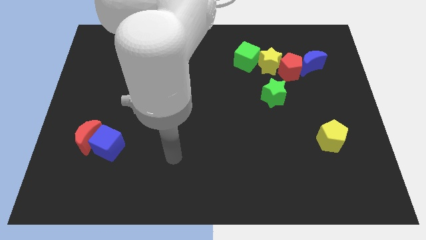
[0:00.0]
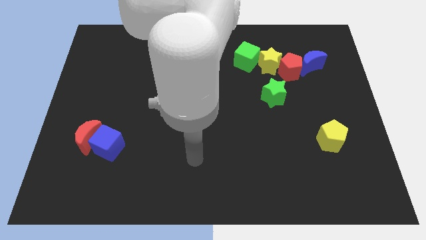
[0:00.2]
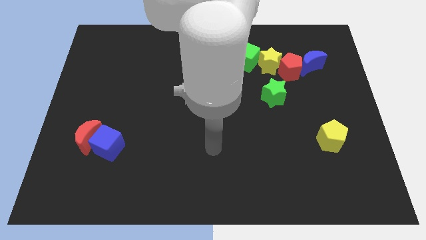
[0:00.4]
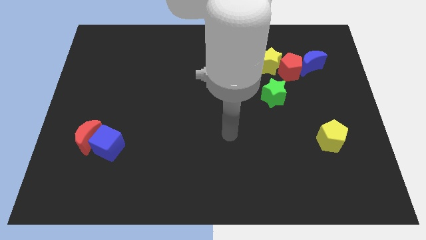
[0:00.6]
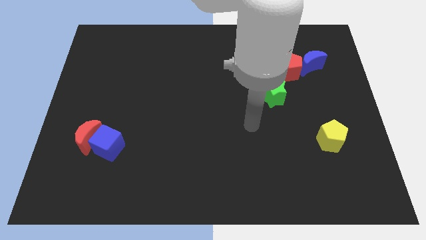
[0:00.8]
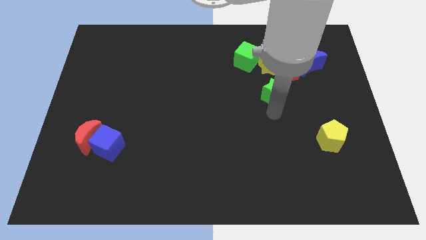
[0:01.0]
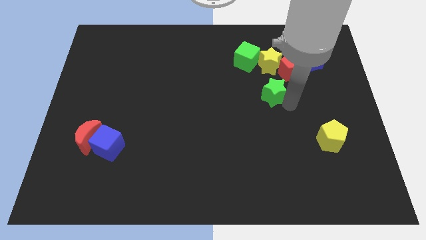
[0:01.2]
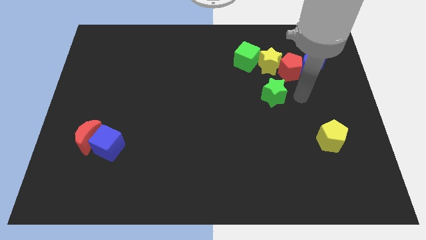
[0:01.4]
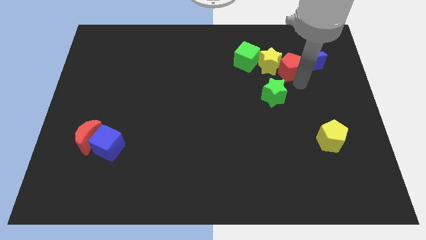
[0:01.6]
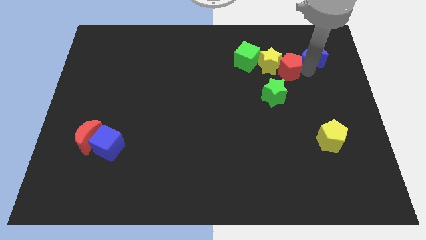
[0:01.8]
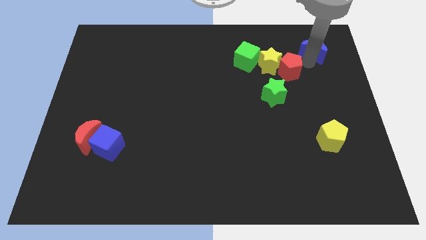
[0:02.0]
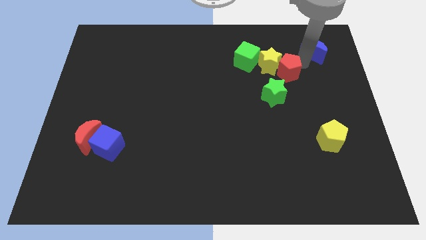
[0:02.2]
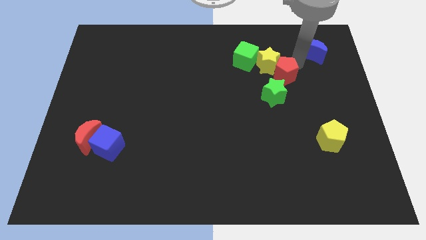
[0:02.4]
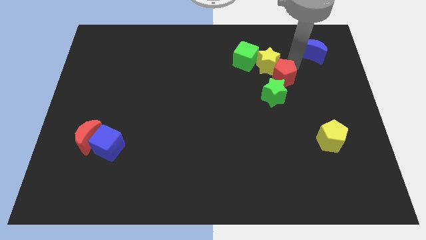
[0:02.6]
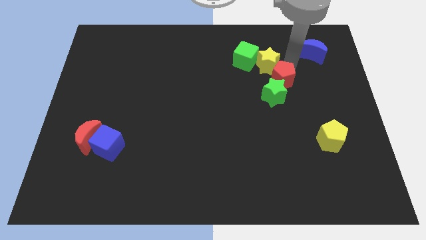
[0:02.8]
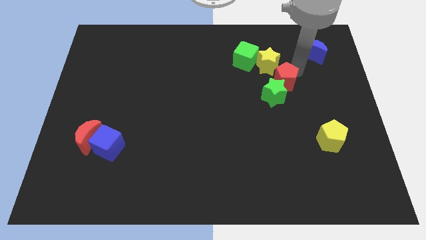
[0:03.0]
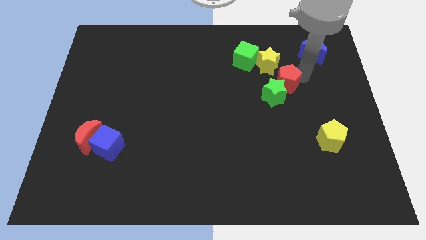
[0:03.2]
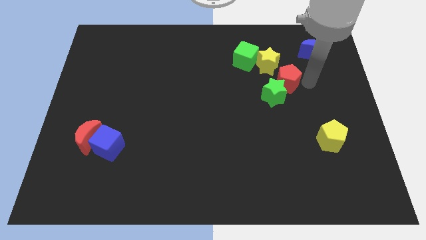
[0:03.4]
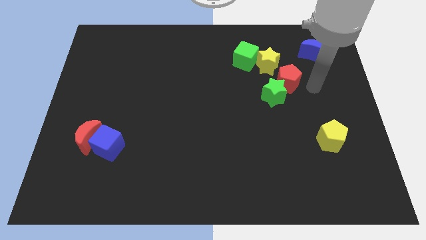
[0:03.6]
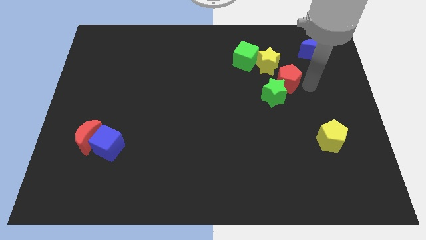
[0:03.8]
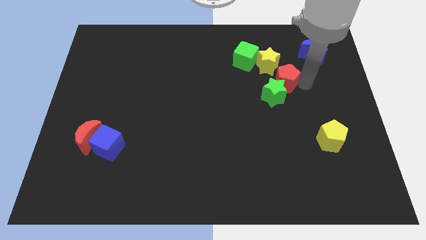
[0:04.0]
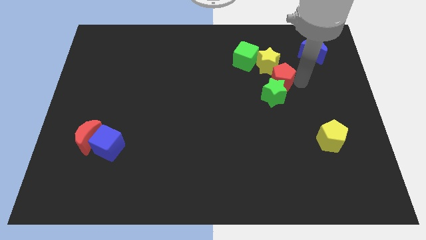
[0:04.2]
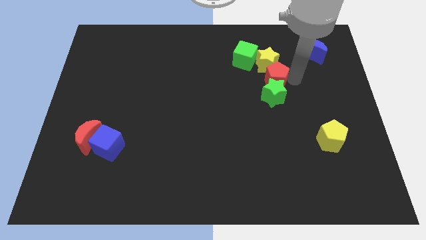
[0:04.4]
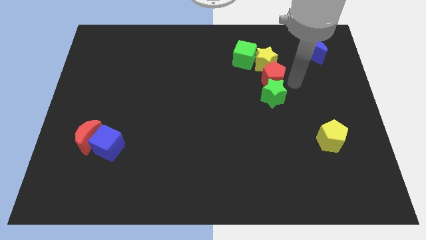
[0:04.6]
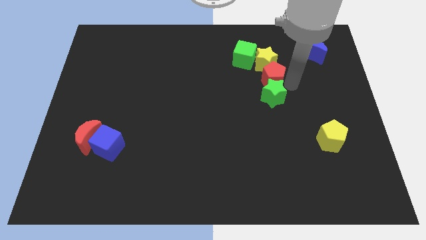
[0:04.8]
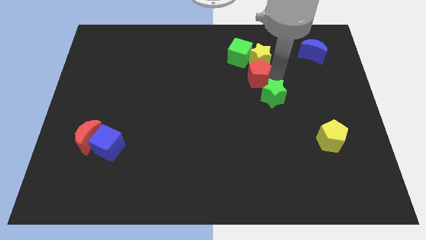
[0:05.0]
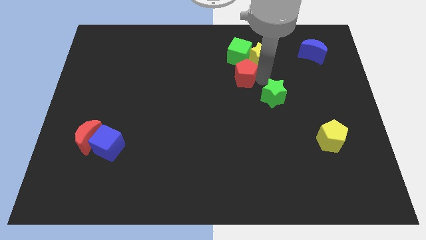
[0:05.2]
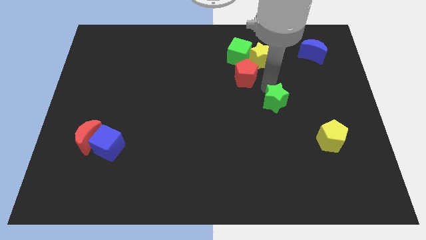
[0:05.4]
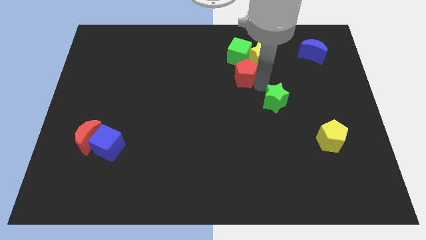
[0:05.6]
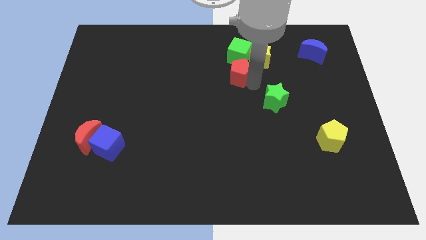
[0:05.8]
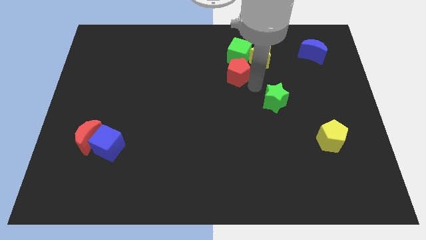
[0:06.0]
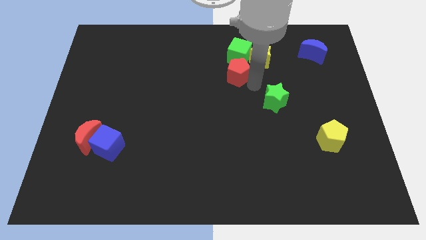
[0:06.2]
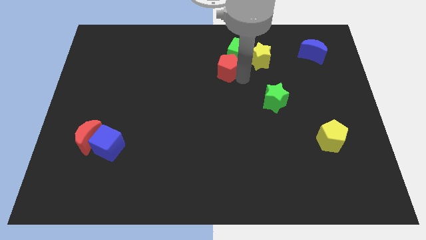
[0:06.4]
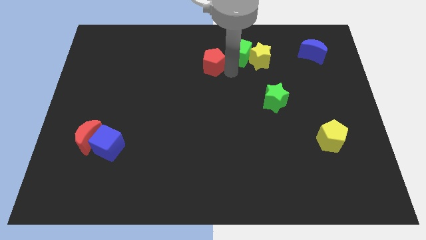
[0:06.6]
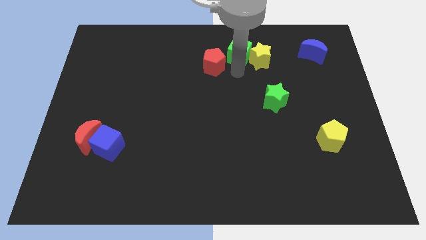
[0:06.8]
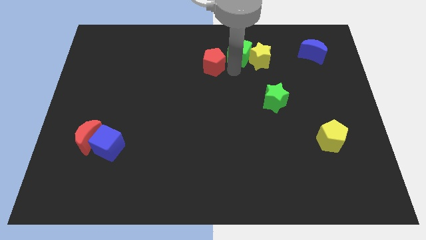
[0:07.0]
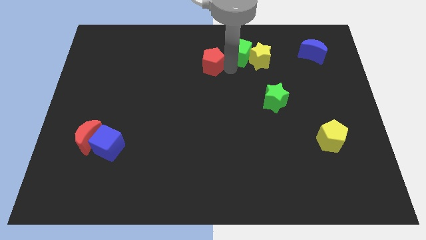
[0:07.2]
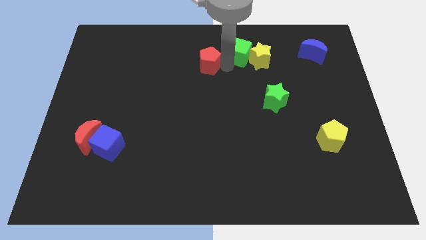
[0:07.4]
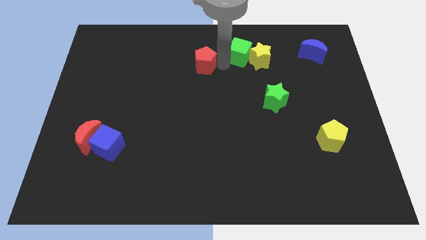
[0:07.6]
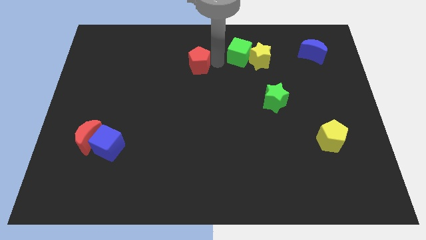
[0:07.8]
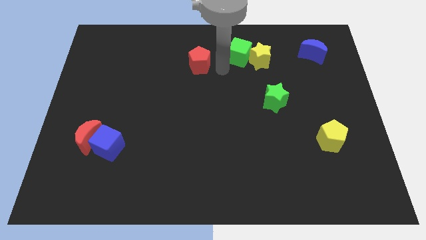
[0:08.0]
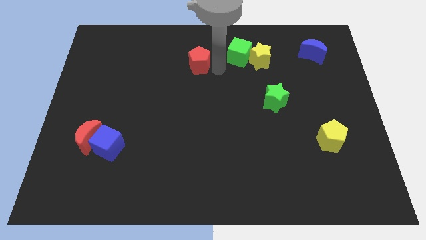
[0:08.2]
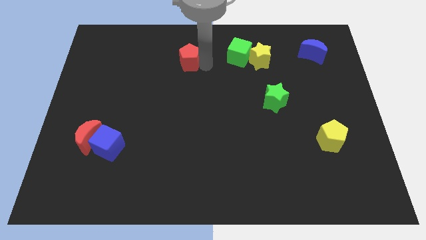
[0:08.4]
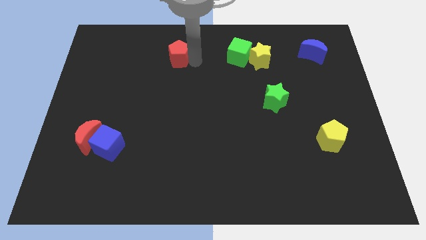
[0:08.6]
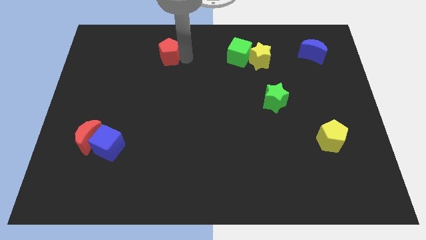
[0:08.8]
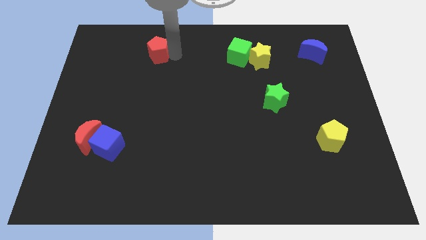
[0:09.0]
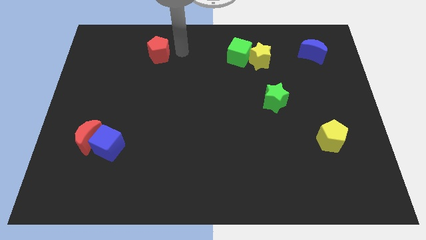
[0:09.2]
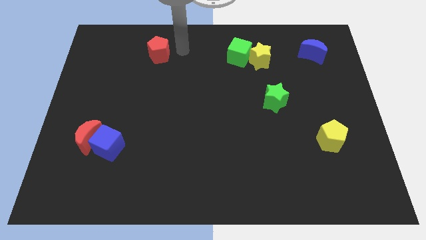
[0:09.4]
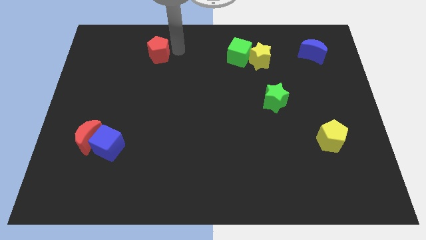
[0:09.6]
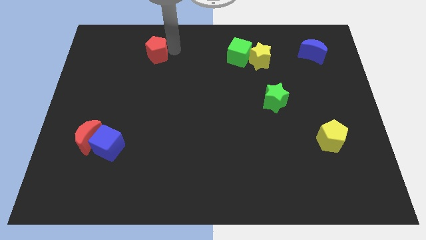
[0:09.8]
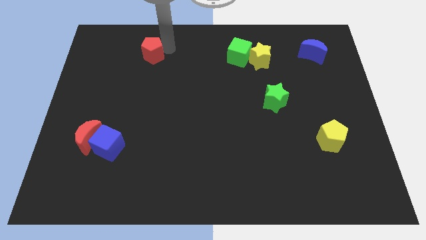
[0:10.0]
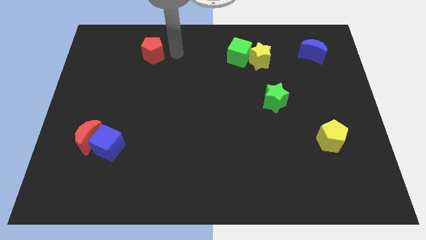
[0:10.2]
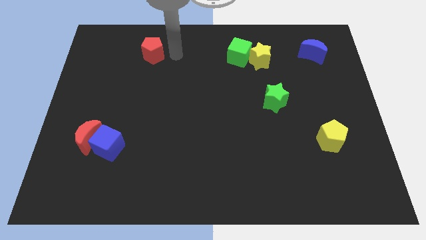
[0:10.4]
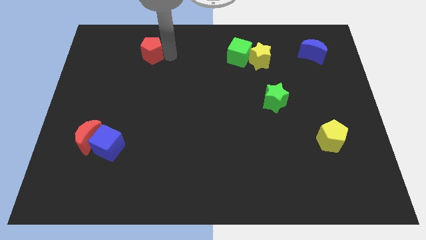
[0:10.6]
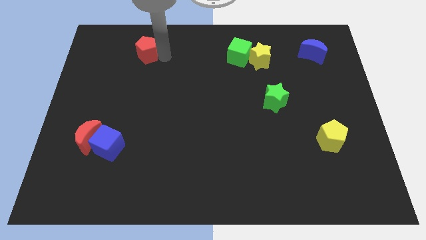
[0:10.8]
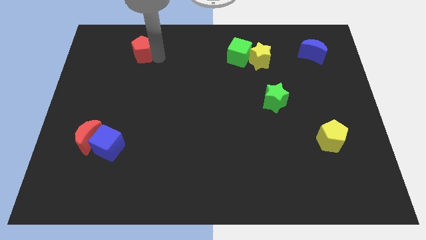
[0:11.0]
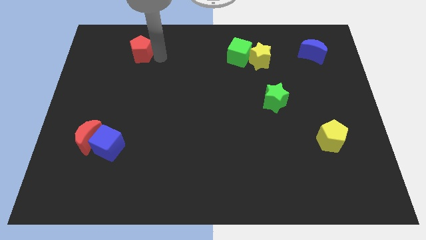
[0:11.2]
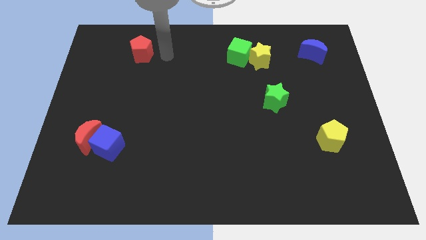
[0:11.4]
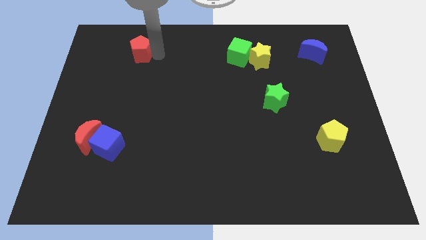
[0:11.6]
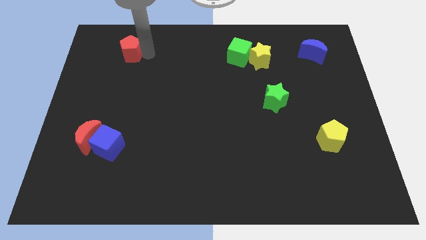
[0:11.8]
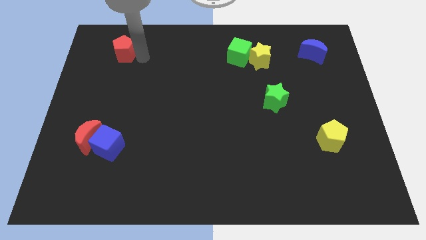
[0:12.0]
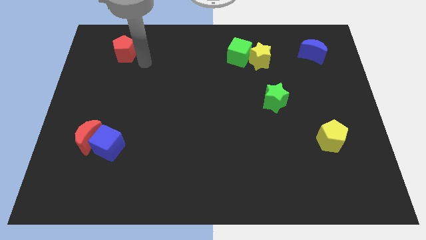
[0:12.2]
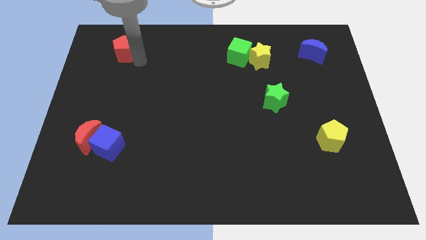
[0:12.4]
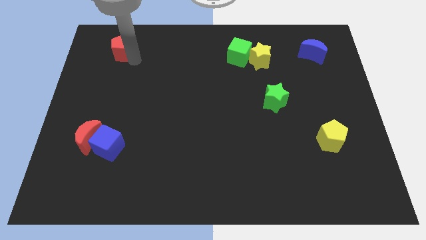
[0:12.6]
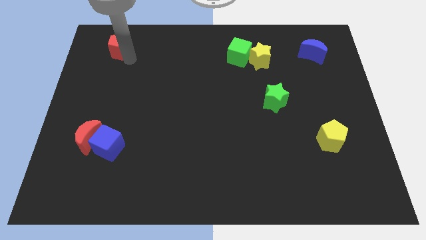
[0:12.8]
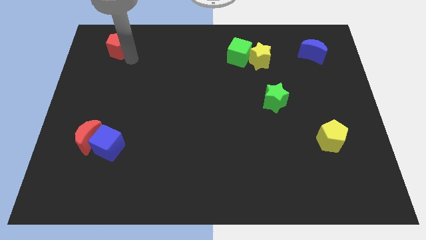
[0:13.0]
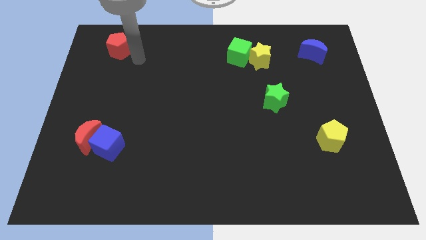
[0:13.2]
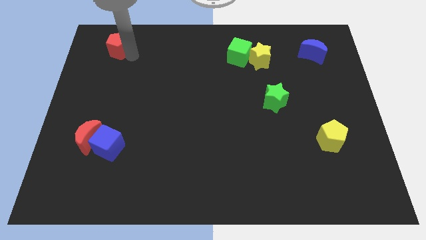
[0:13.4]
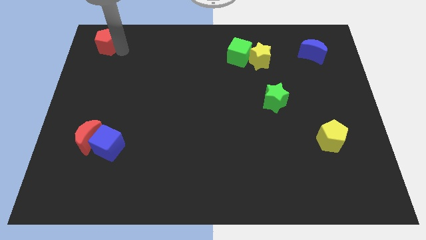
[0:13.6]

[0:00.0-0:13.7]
put the red pentagon to the top left
